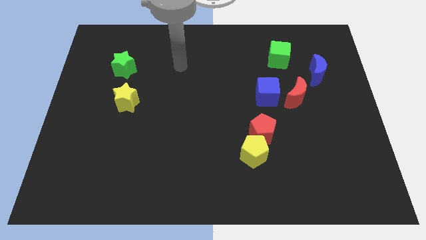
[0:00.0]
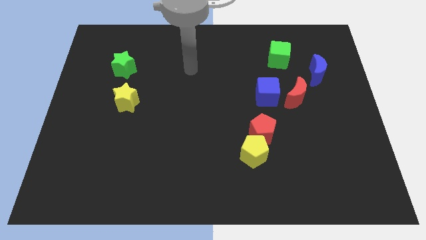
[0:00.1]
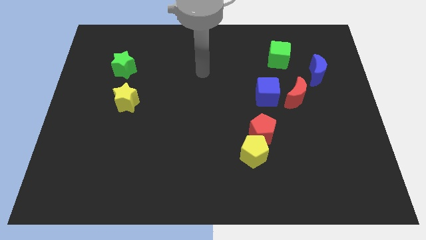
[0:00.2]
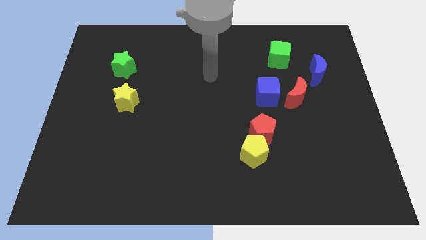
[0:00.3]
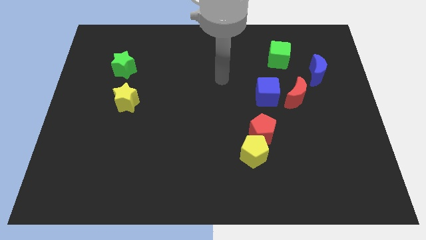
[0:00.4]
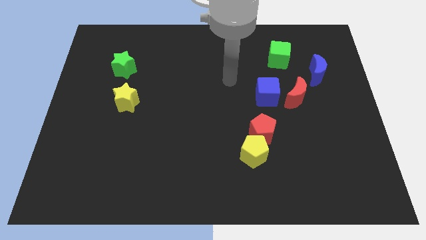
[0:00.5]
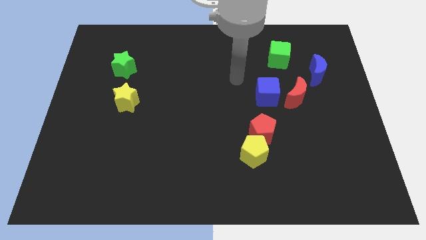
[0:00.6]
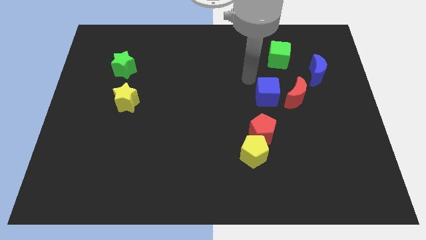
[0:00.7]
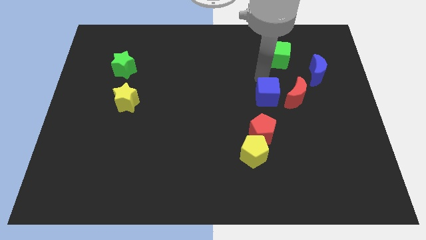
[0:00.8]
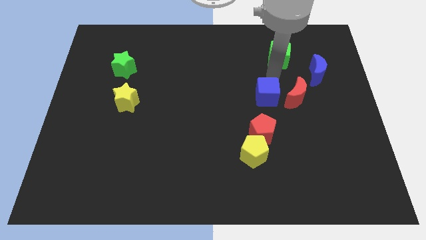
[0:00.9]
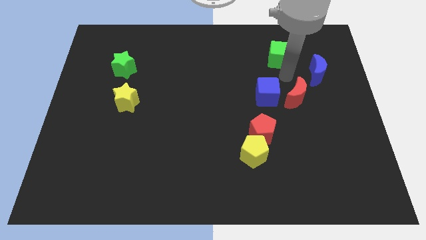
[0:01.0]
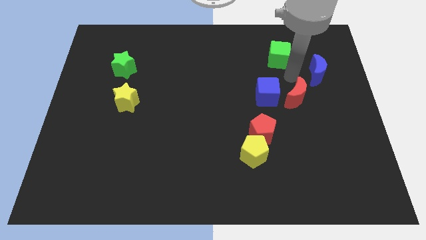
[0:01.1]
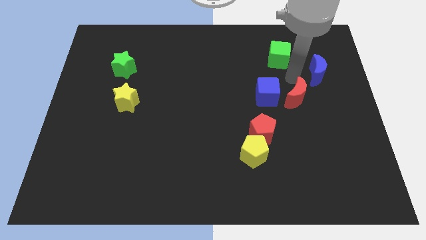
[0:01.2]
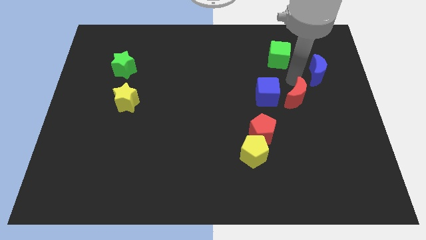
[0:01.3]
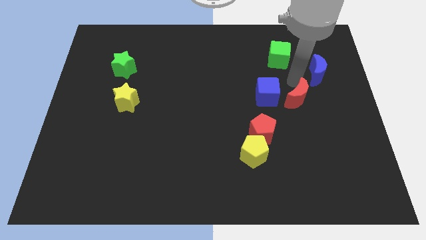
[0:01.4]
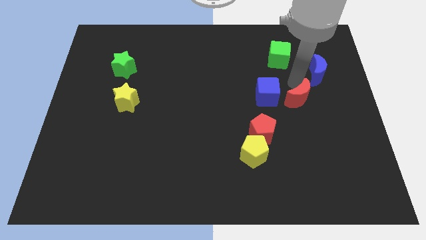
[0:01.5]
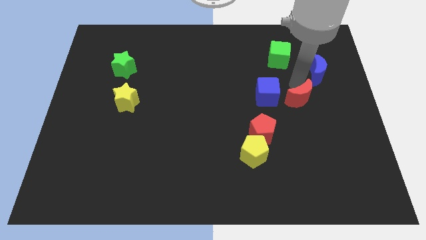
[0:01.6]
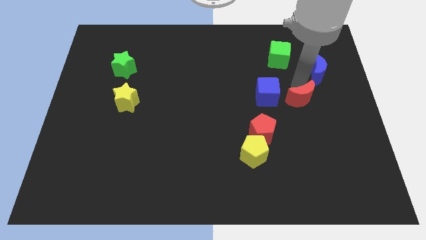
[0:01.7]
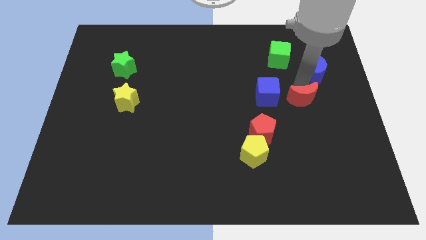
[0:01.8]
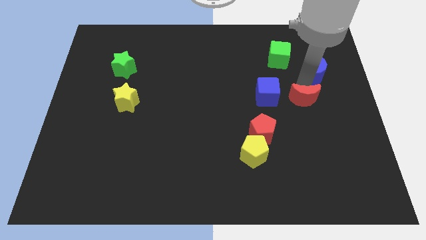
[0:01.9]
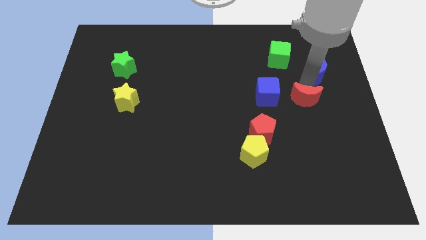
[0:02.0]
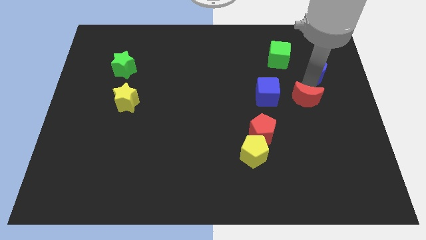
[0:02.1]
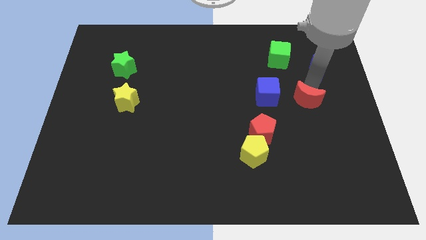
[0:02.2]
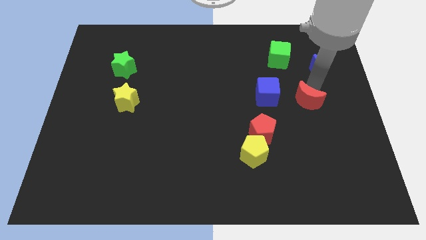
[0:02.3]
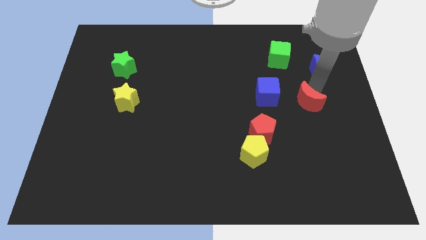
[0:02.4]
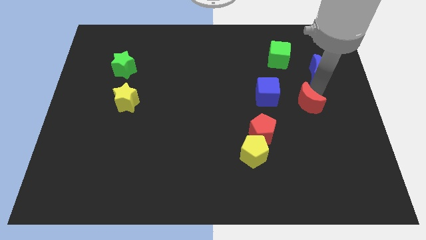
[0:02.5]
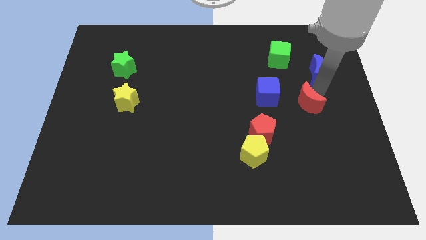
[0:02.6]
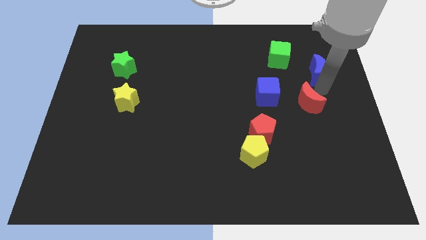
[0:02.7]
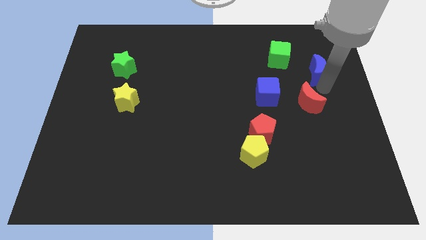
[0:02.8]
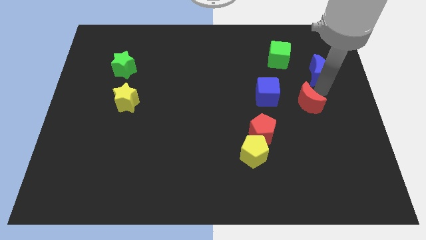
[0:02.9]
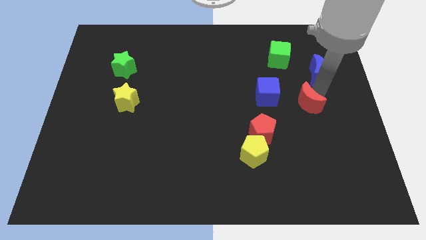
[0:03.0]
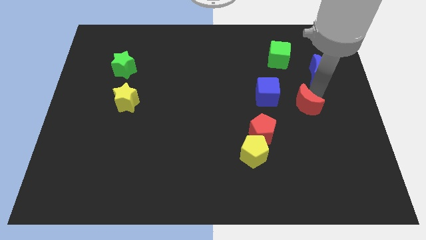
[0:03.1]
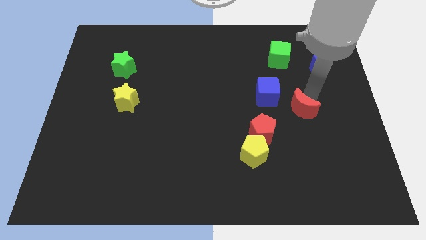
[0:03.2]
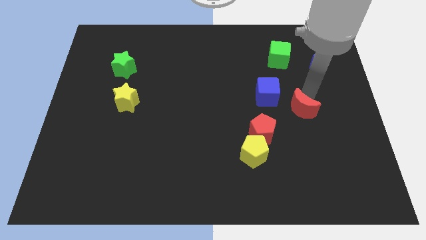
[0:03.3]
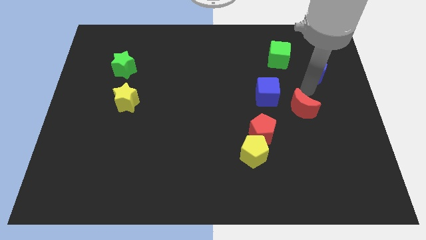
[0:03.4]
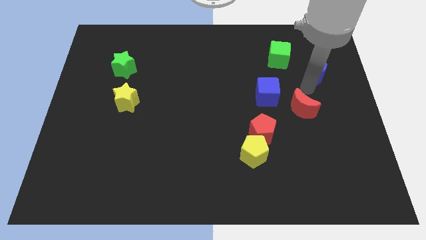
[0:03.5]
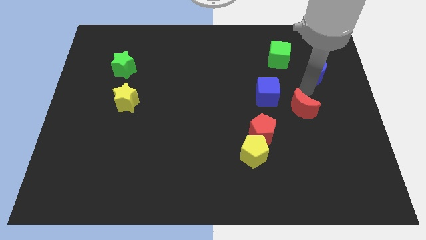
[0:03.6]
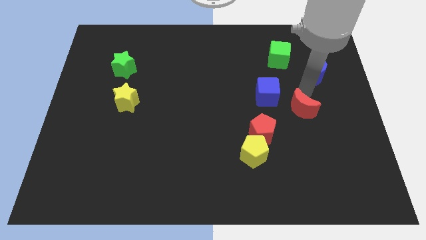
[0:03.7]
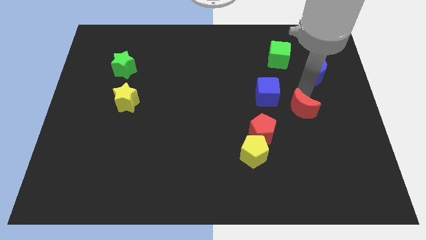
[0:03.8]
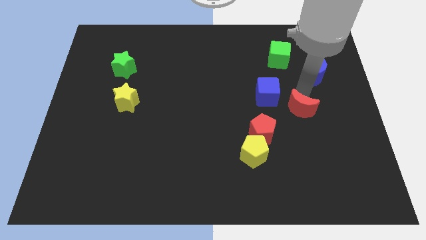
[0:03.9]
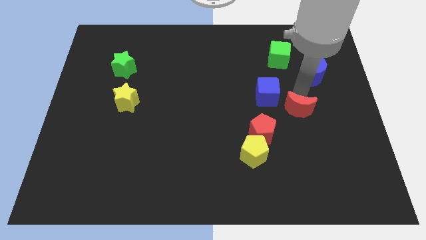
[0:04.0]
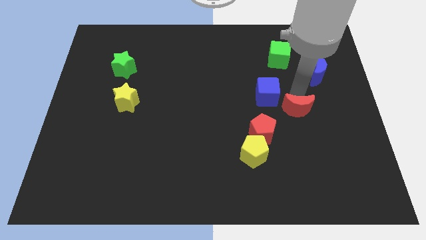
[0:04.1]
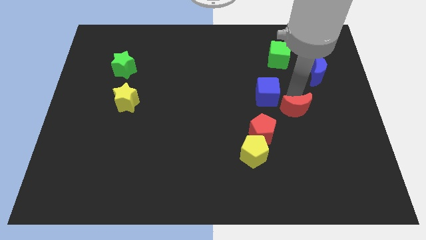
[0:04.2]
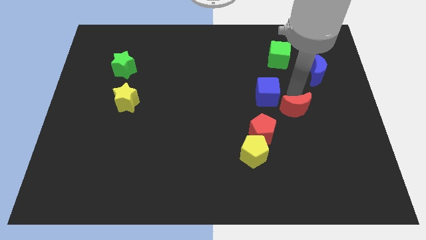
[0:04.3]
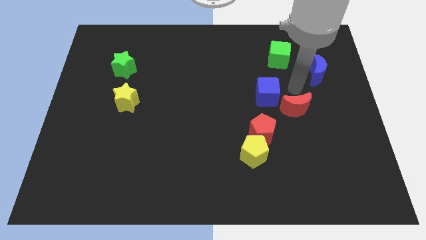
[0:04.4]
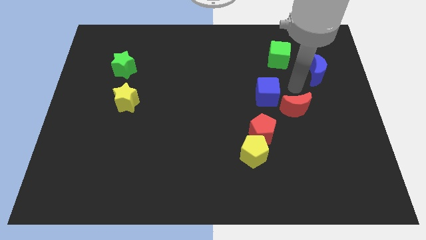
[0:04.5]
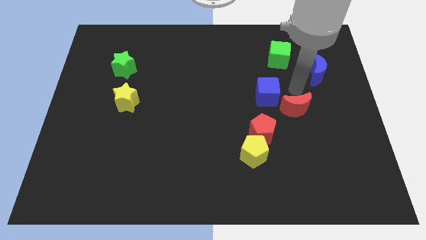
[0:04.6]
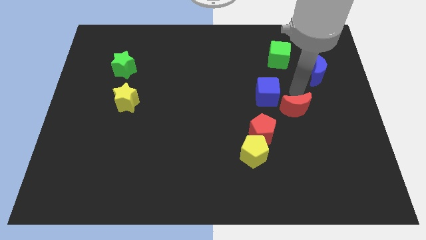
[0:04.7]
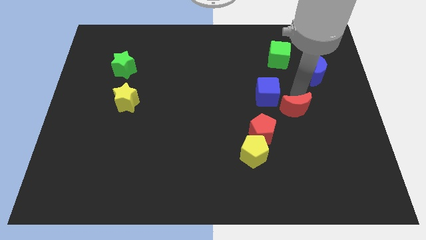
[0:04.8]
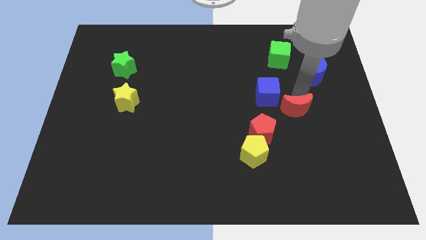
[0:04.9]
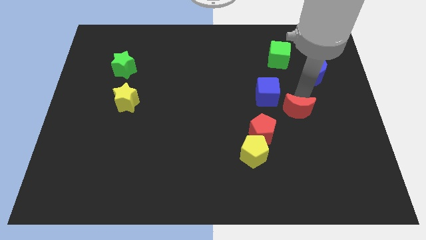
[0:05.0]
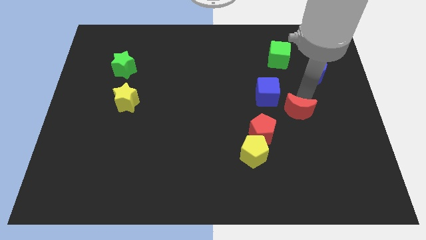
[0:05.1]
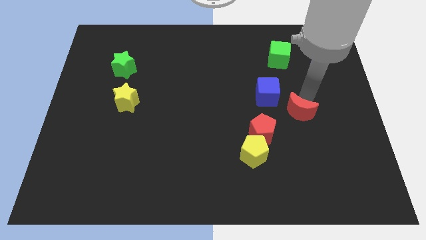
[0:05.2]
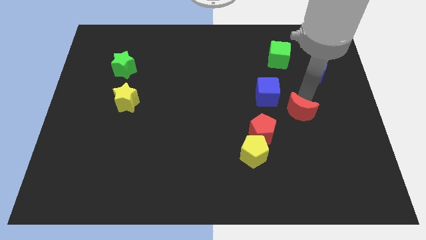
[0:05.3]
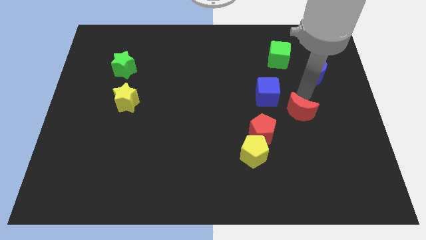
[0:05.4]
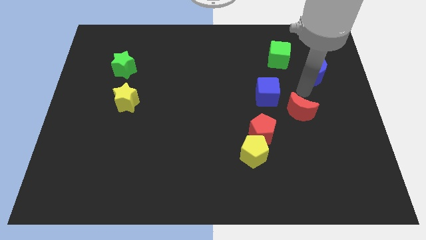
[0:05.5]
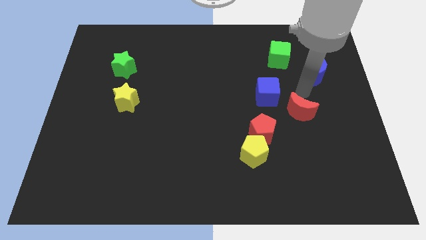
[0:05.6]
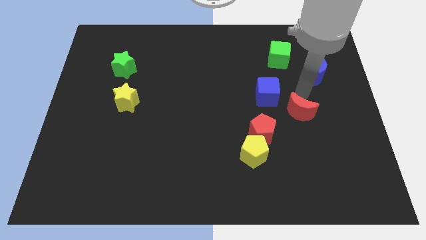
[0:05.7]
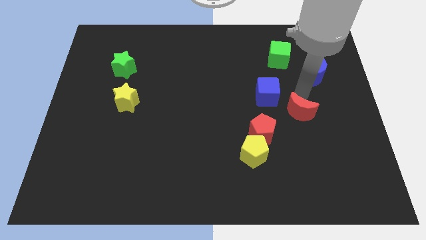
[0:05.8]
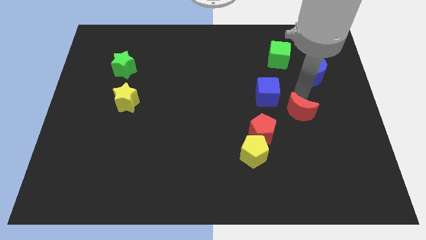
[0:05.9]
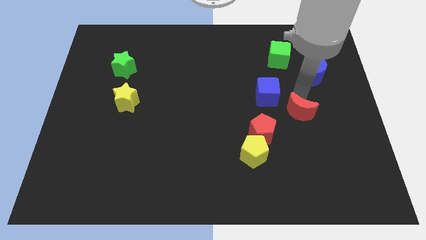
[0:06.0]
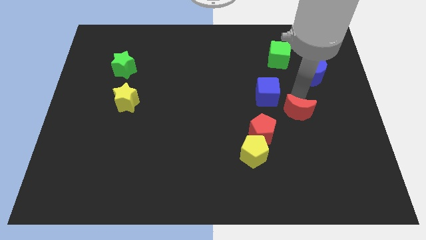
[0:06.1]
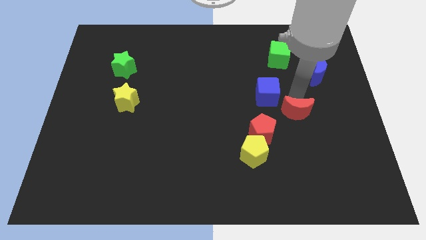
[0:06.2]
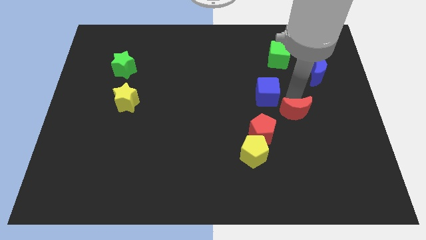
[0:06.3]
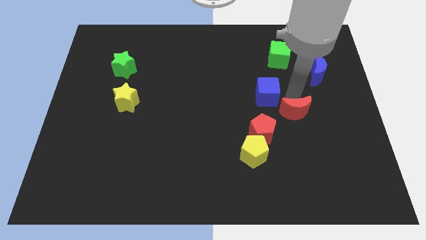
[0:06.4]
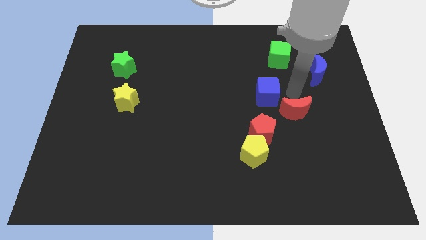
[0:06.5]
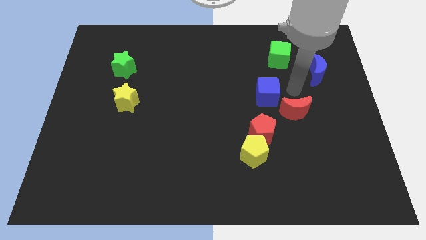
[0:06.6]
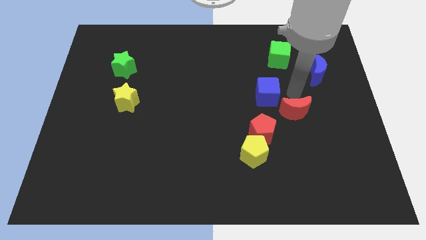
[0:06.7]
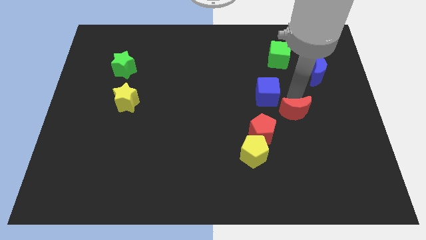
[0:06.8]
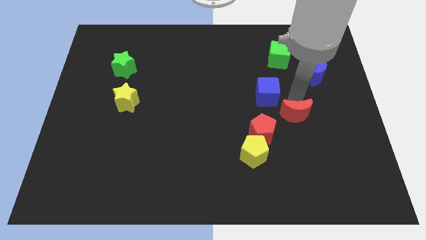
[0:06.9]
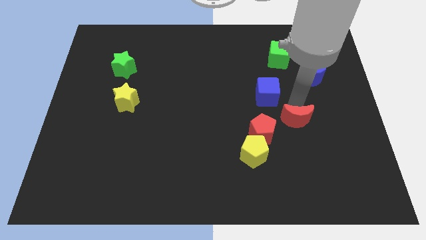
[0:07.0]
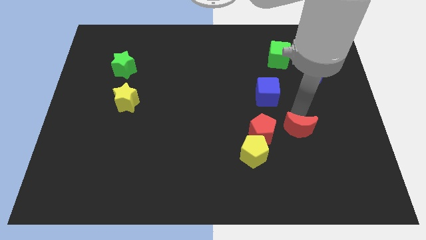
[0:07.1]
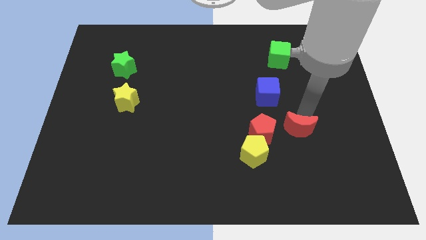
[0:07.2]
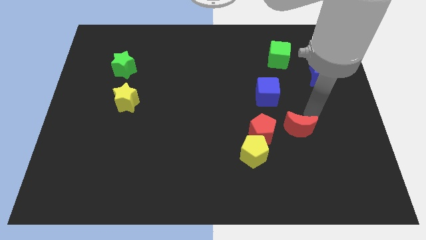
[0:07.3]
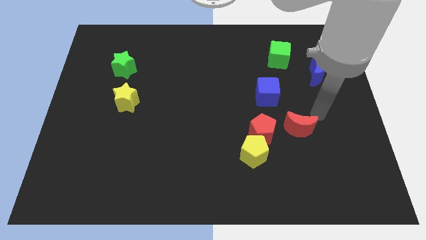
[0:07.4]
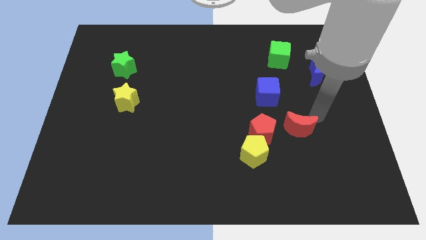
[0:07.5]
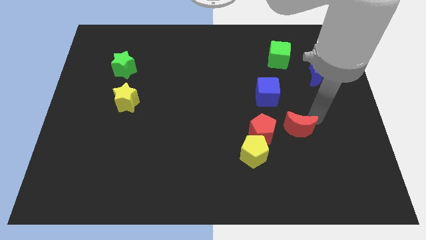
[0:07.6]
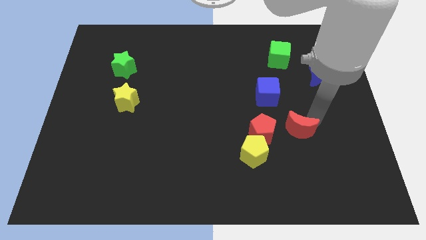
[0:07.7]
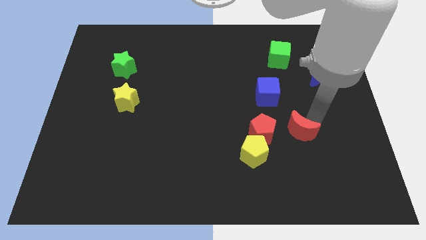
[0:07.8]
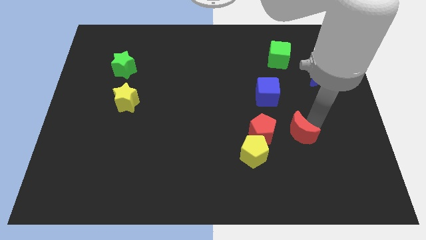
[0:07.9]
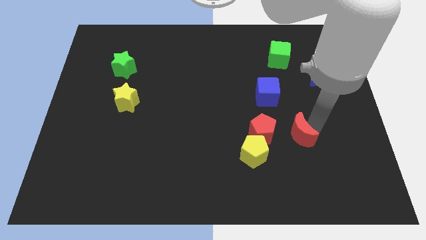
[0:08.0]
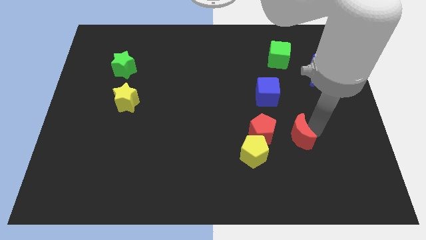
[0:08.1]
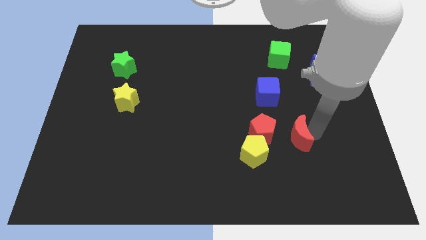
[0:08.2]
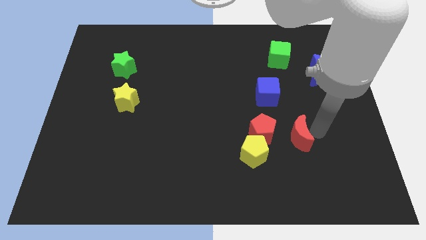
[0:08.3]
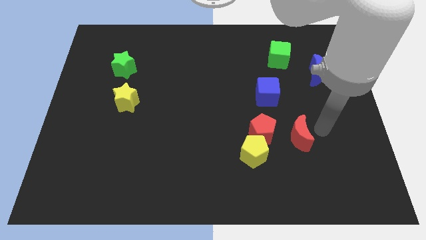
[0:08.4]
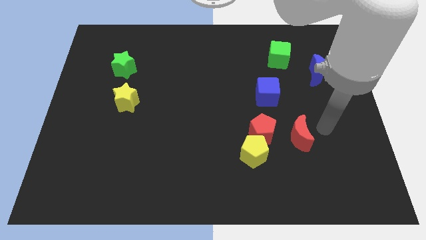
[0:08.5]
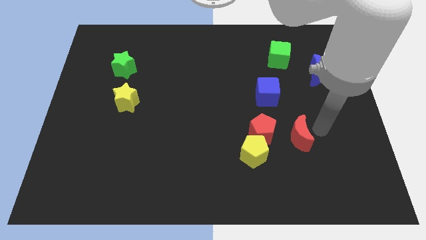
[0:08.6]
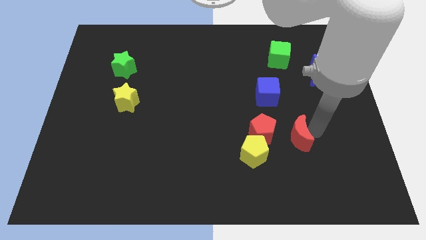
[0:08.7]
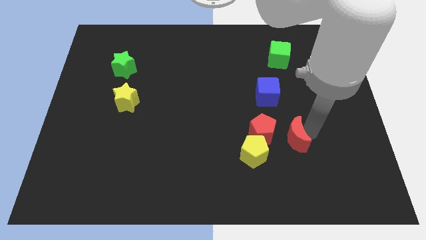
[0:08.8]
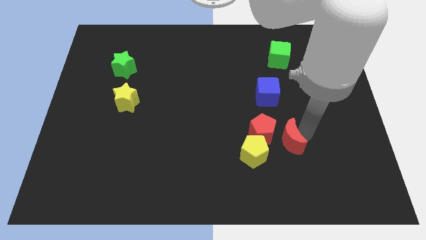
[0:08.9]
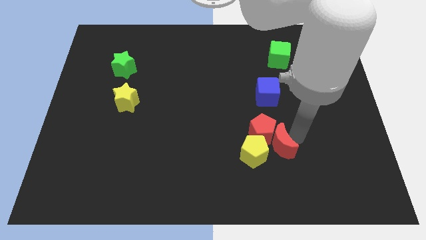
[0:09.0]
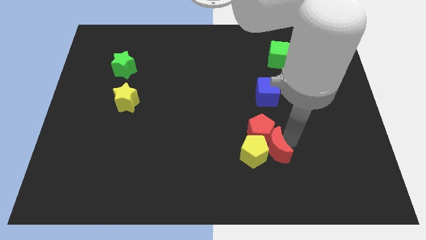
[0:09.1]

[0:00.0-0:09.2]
move the red moon towards the yellow pentagon
